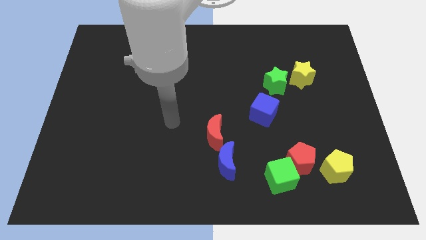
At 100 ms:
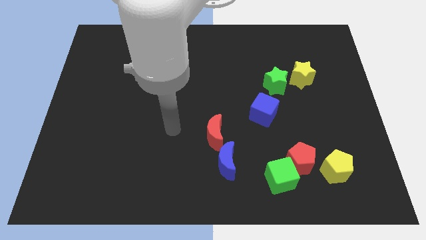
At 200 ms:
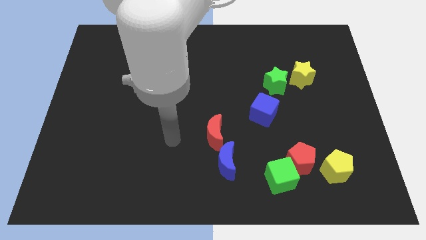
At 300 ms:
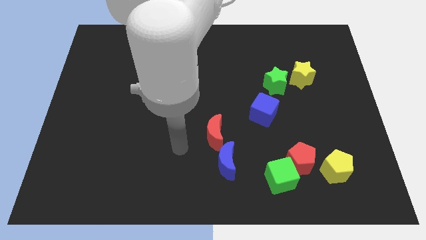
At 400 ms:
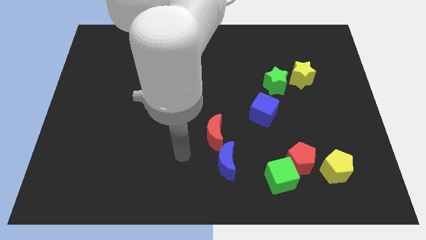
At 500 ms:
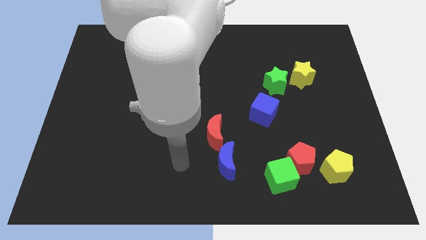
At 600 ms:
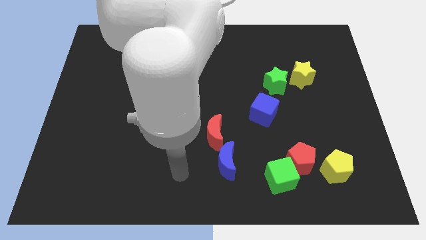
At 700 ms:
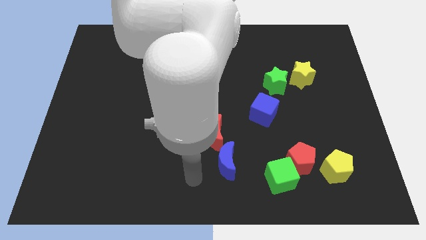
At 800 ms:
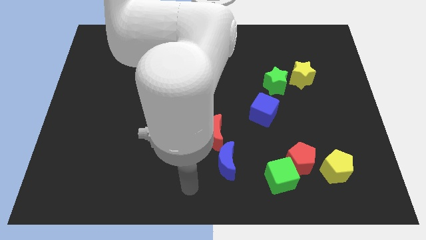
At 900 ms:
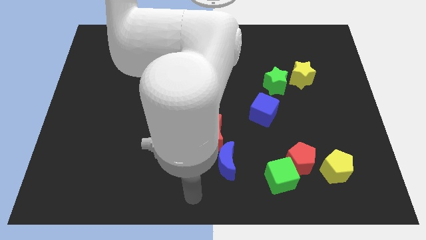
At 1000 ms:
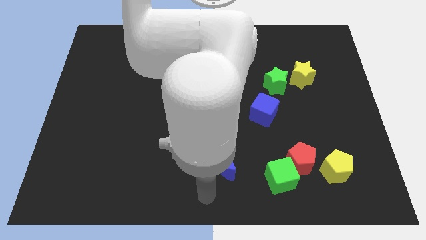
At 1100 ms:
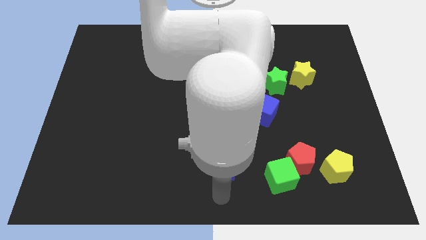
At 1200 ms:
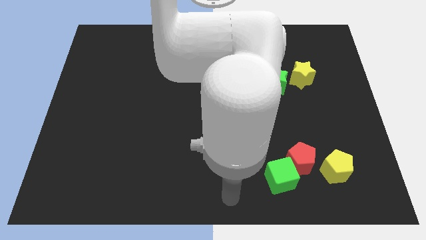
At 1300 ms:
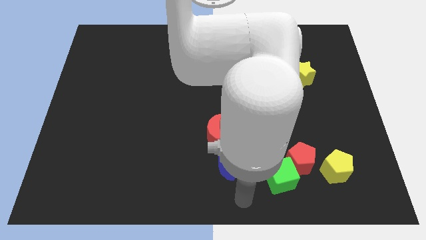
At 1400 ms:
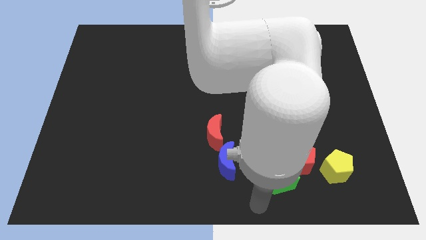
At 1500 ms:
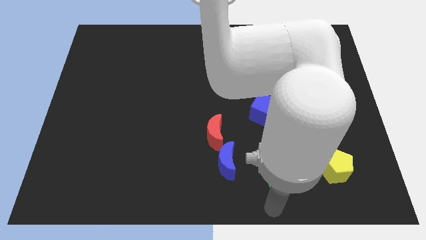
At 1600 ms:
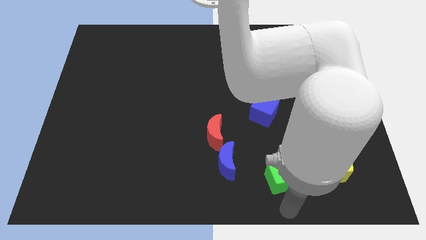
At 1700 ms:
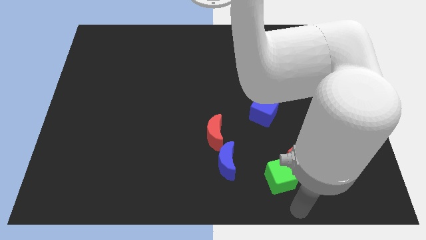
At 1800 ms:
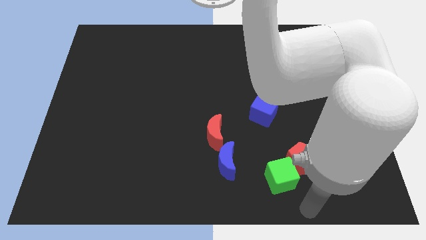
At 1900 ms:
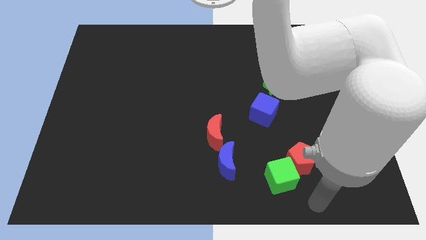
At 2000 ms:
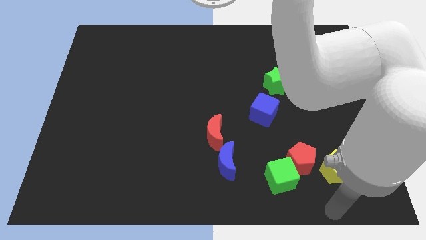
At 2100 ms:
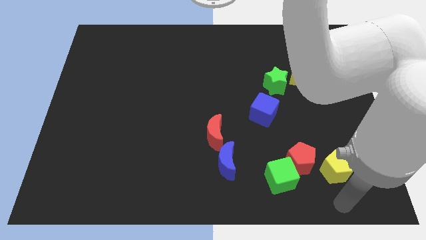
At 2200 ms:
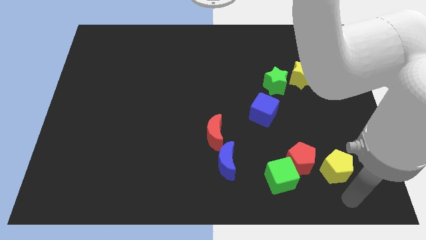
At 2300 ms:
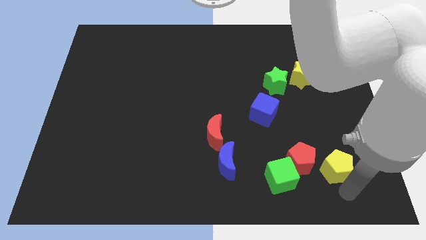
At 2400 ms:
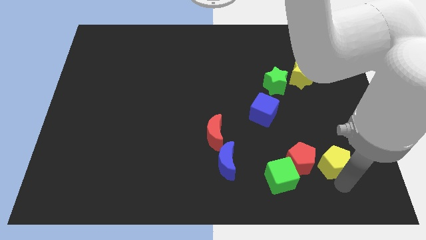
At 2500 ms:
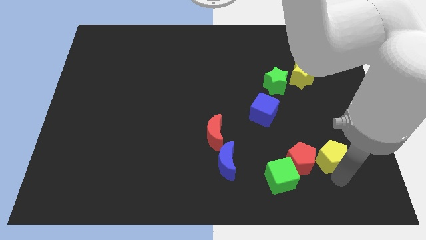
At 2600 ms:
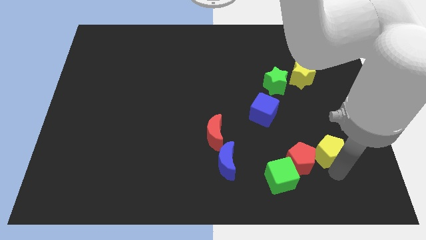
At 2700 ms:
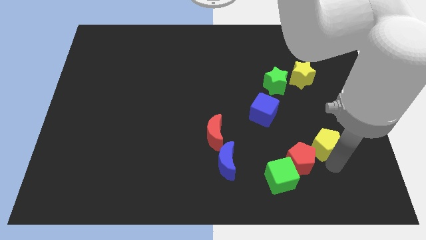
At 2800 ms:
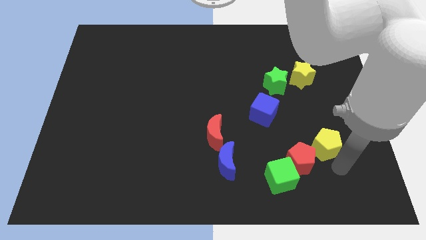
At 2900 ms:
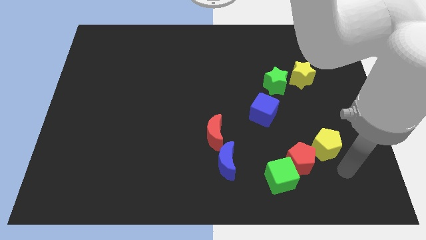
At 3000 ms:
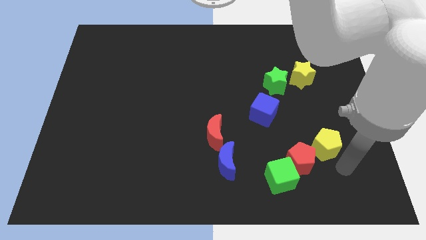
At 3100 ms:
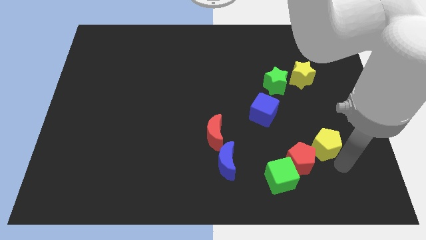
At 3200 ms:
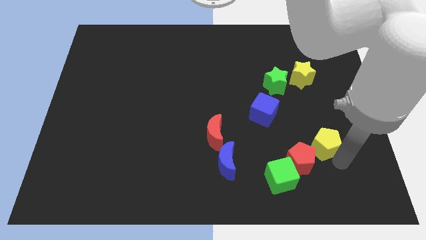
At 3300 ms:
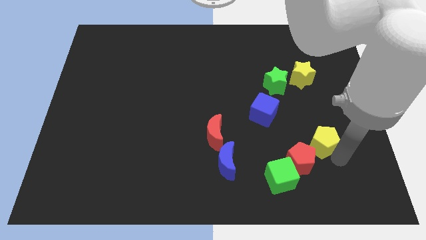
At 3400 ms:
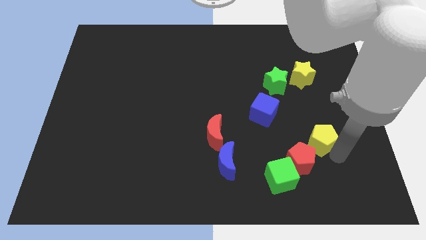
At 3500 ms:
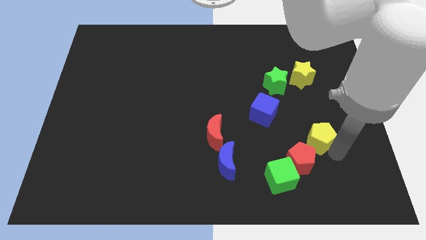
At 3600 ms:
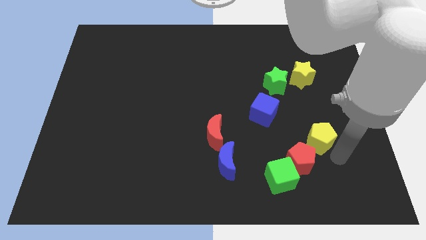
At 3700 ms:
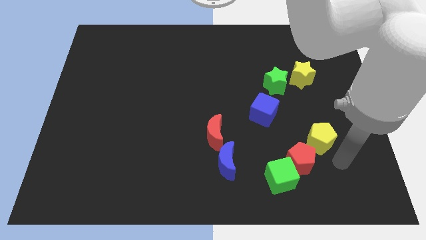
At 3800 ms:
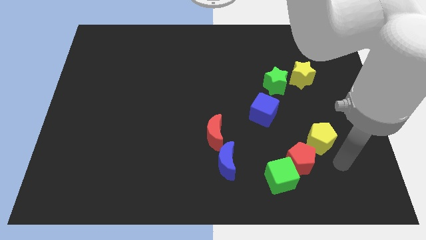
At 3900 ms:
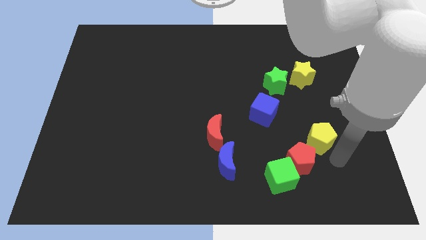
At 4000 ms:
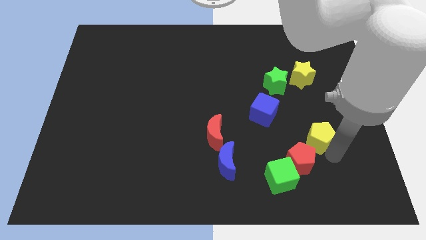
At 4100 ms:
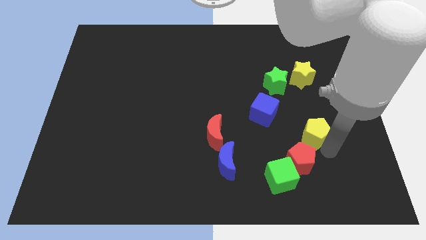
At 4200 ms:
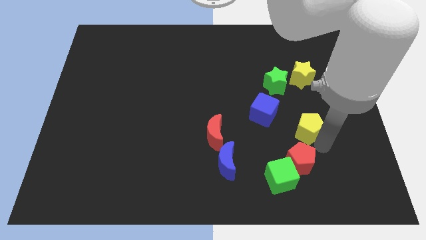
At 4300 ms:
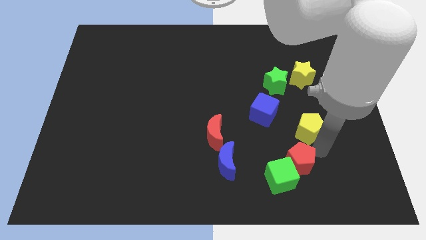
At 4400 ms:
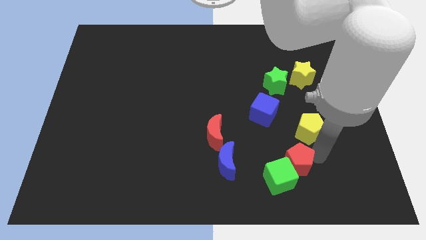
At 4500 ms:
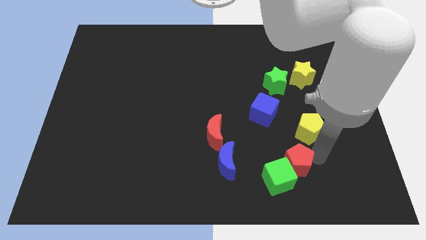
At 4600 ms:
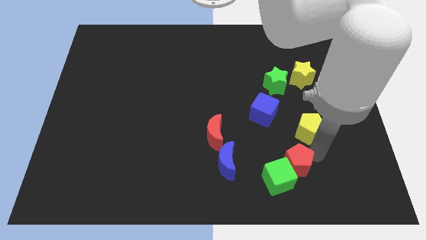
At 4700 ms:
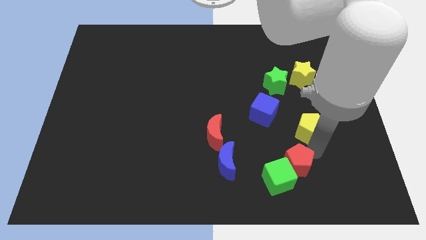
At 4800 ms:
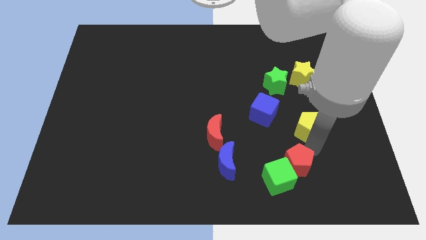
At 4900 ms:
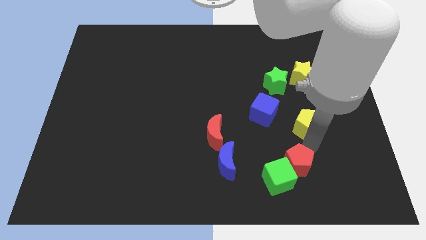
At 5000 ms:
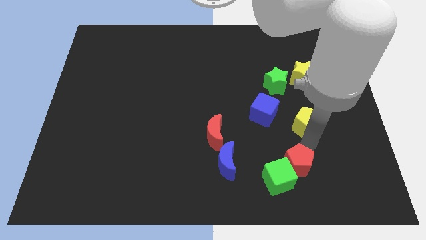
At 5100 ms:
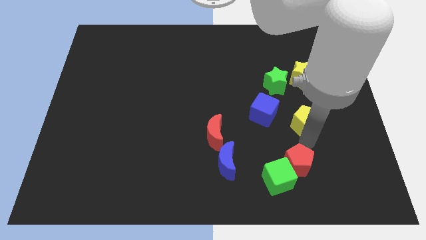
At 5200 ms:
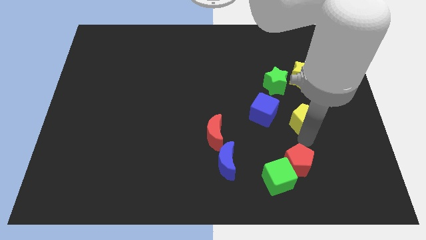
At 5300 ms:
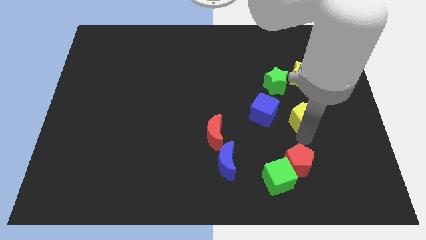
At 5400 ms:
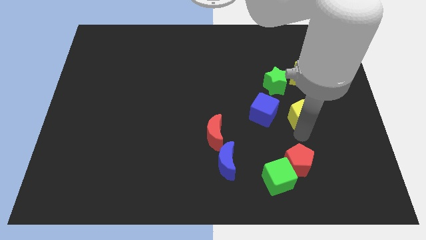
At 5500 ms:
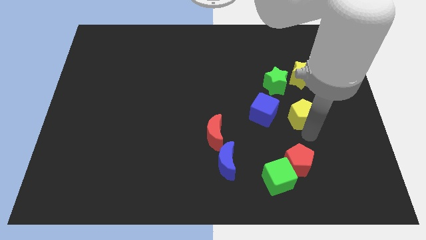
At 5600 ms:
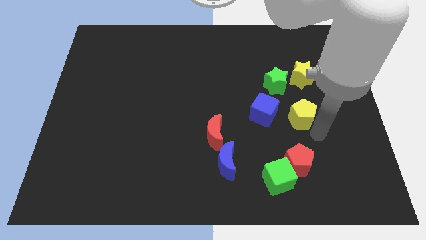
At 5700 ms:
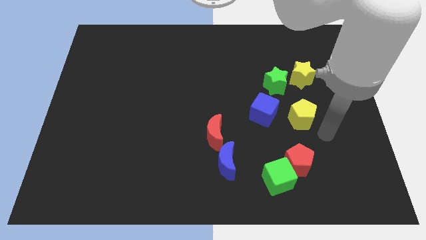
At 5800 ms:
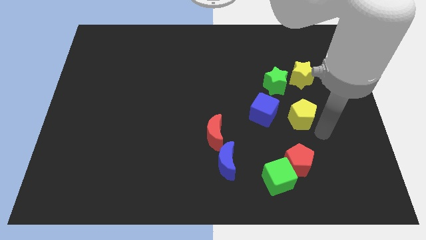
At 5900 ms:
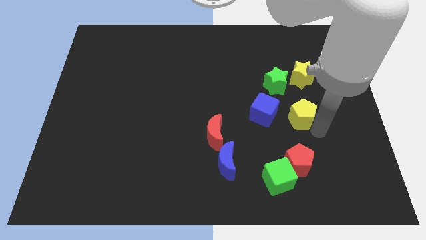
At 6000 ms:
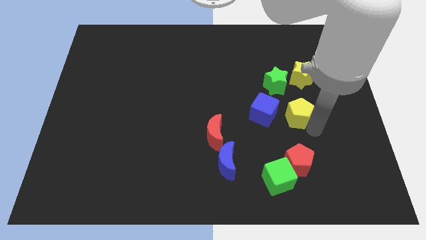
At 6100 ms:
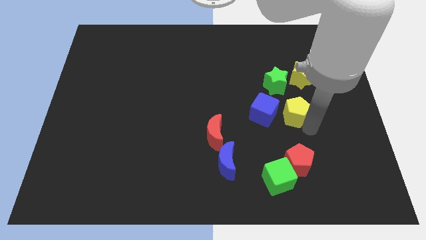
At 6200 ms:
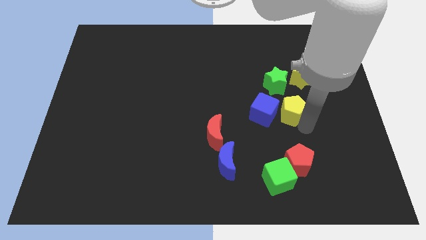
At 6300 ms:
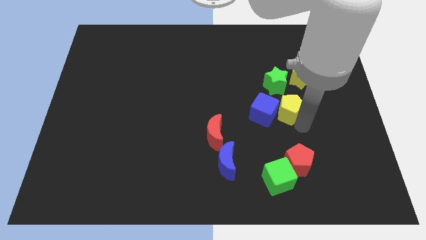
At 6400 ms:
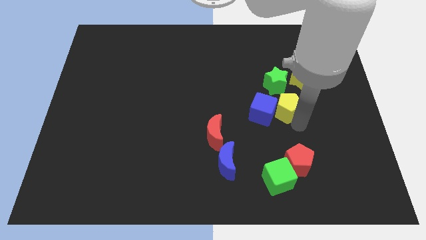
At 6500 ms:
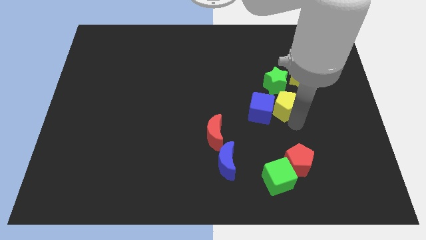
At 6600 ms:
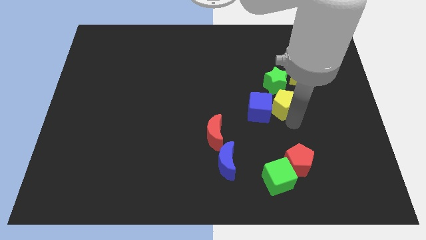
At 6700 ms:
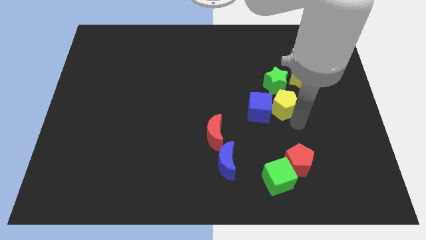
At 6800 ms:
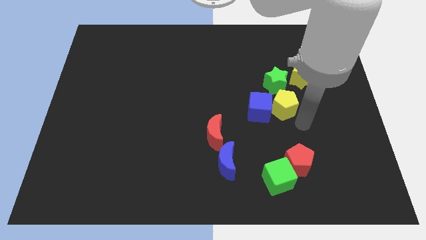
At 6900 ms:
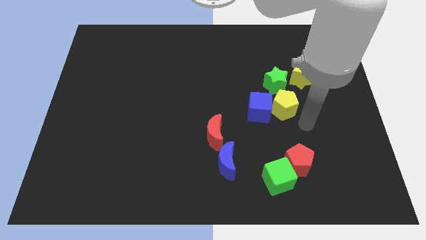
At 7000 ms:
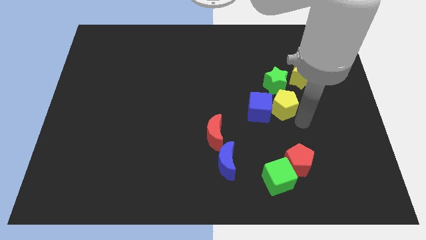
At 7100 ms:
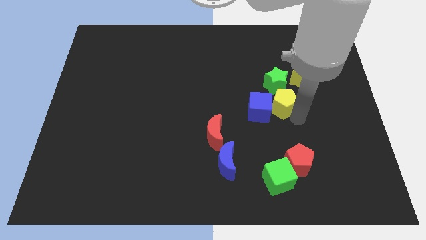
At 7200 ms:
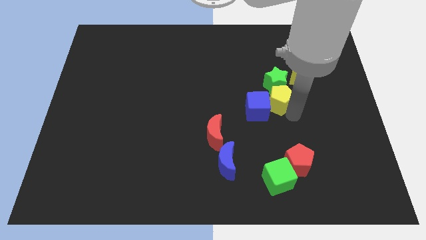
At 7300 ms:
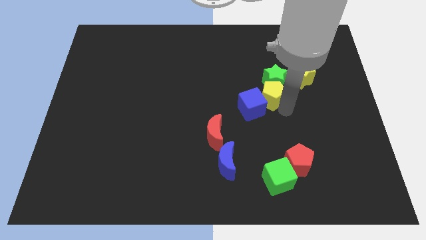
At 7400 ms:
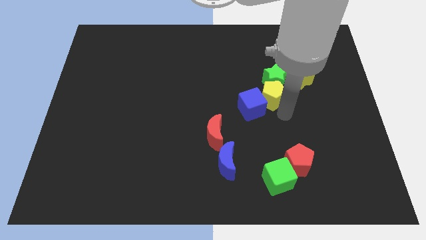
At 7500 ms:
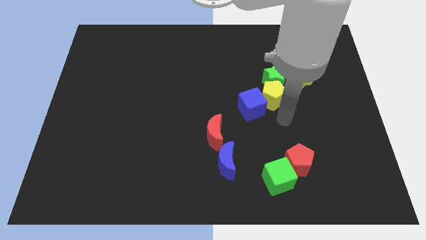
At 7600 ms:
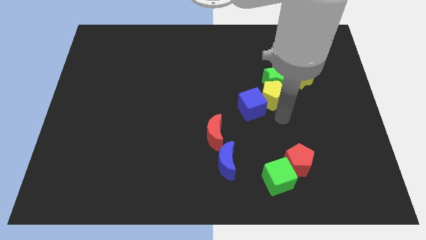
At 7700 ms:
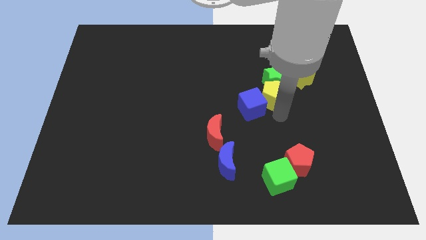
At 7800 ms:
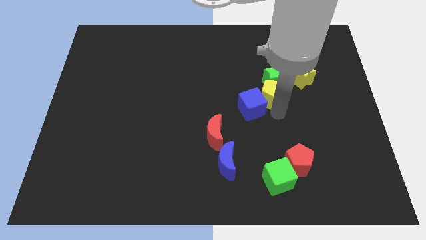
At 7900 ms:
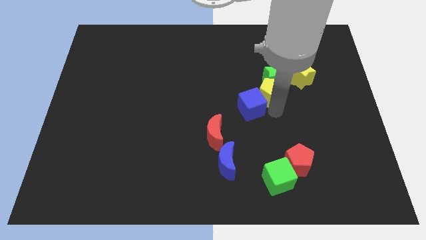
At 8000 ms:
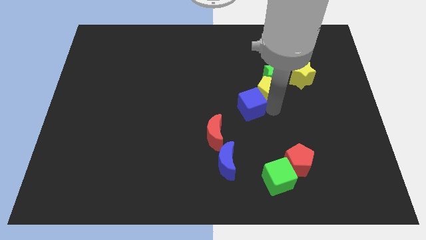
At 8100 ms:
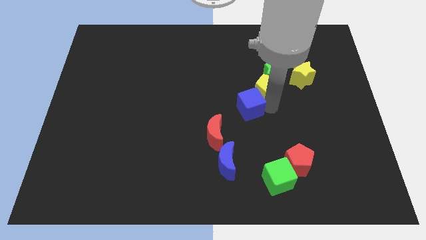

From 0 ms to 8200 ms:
slide the yellow pentagon to the left side of the yellow star
